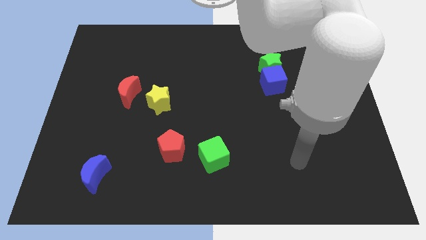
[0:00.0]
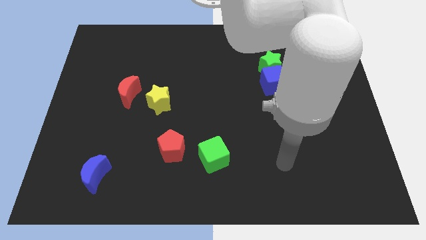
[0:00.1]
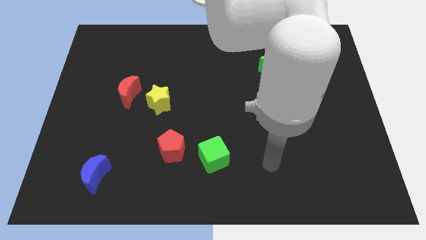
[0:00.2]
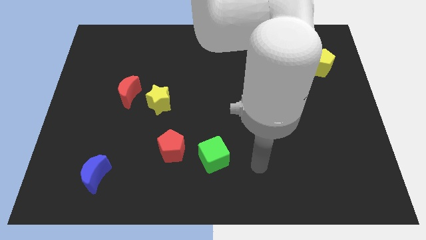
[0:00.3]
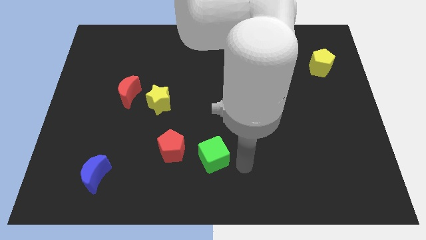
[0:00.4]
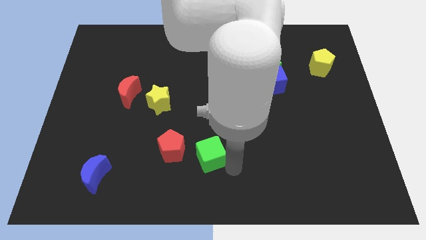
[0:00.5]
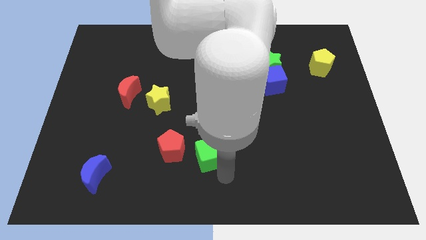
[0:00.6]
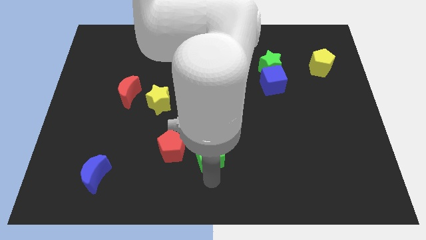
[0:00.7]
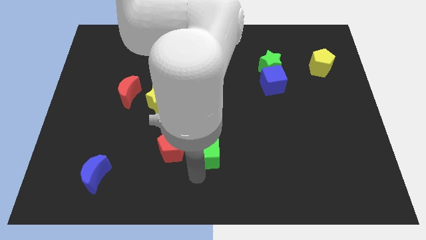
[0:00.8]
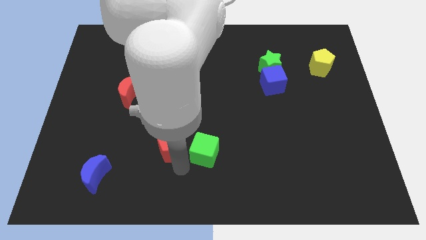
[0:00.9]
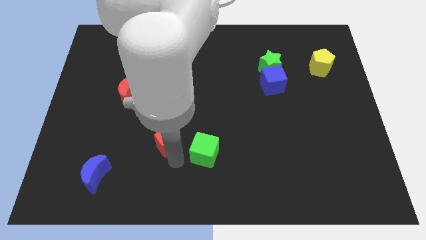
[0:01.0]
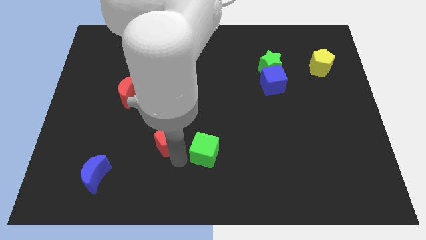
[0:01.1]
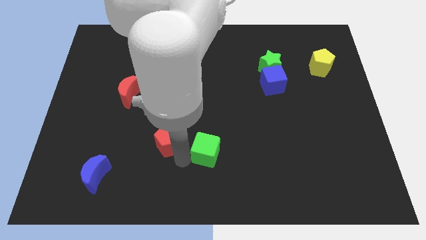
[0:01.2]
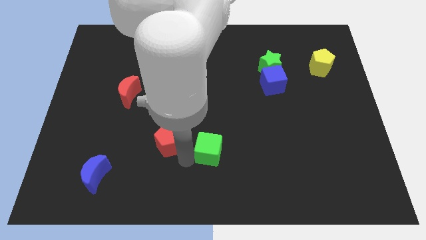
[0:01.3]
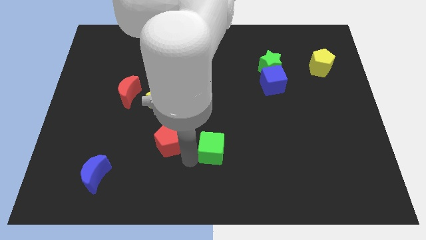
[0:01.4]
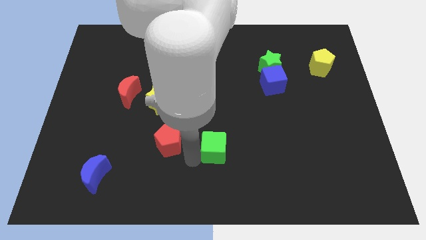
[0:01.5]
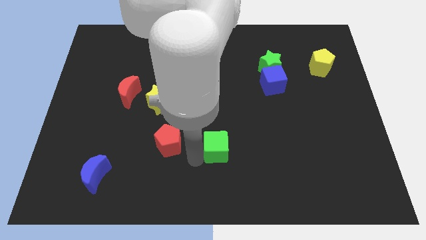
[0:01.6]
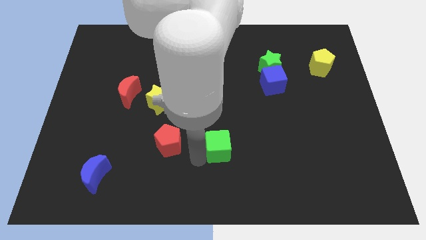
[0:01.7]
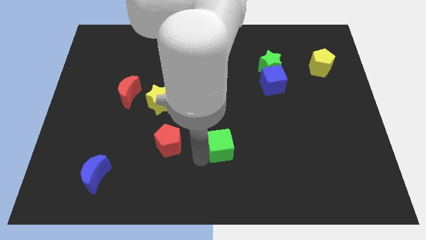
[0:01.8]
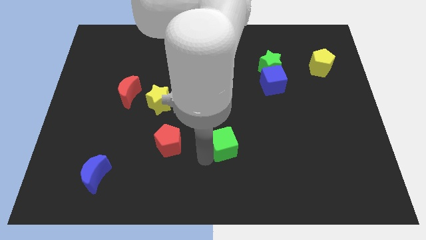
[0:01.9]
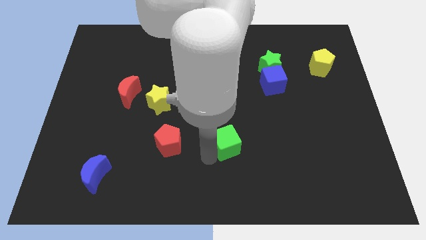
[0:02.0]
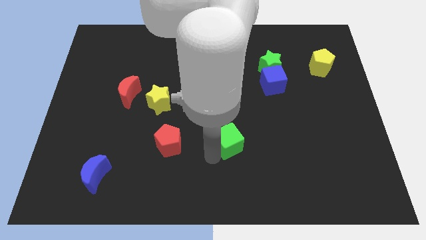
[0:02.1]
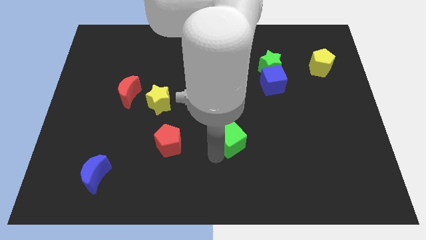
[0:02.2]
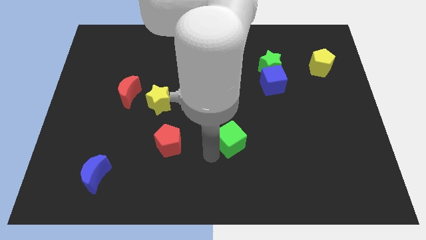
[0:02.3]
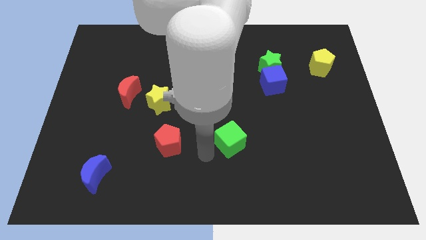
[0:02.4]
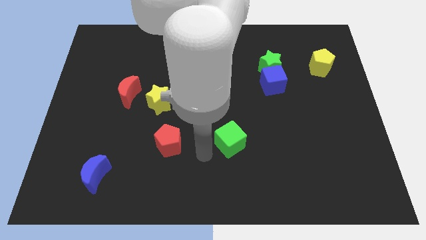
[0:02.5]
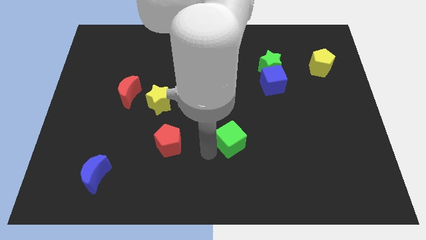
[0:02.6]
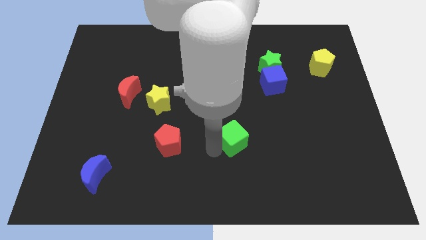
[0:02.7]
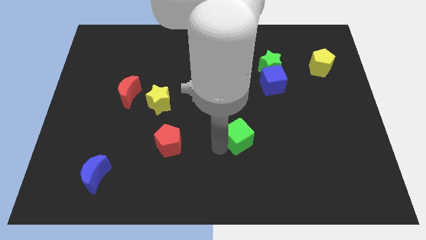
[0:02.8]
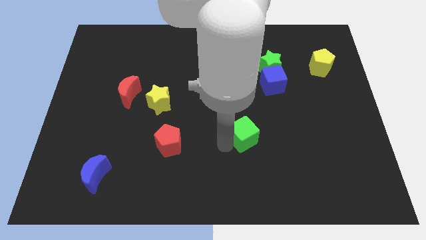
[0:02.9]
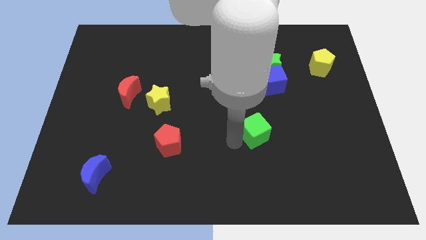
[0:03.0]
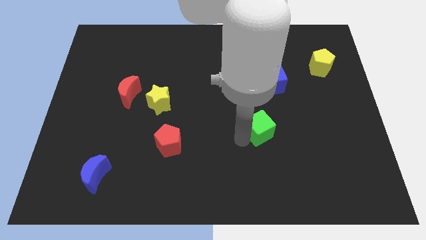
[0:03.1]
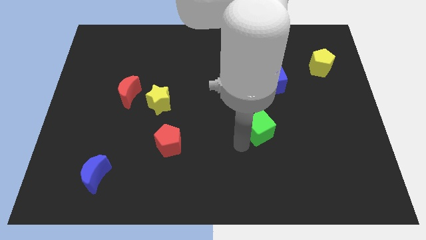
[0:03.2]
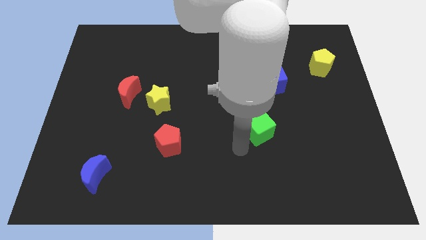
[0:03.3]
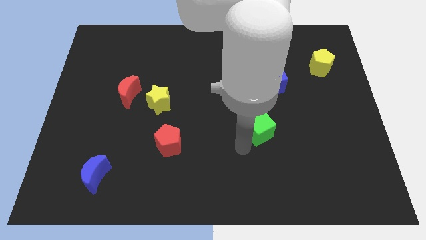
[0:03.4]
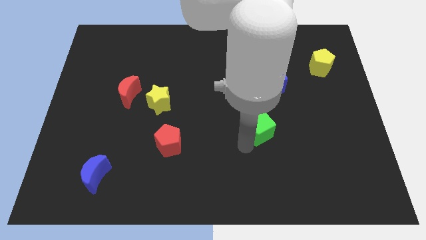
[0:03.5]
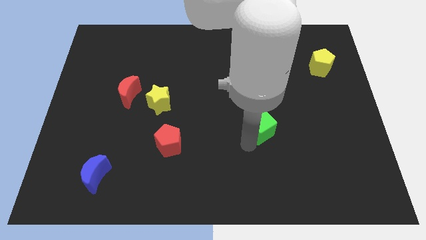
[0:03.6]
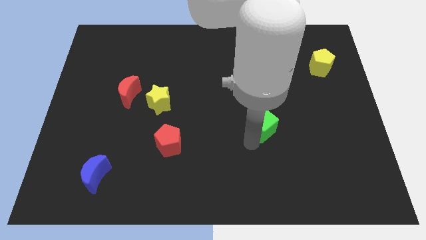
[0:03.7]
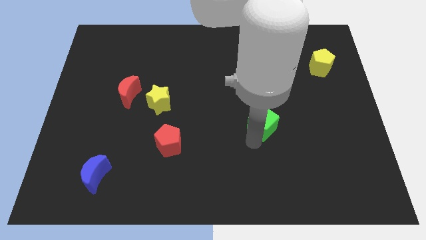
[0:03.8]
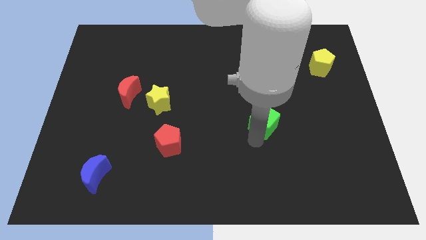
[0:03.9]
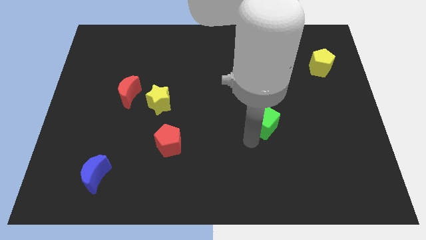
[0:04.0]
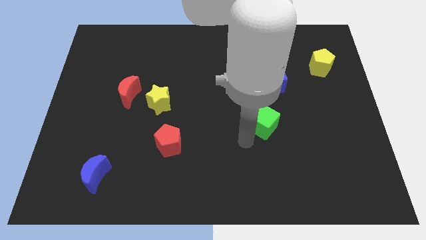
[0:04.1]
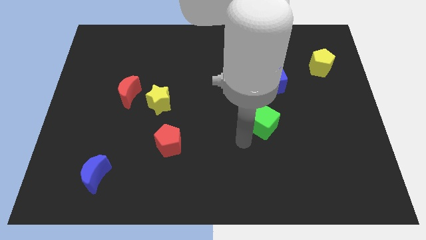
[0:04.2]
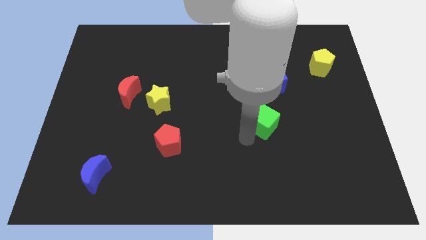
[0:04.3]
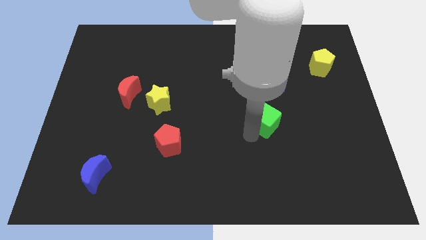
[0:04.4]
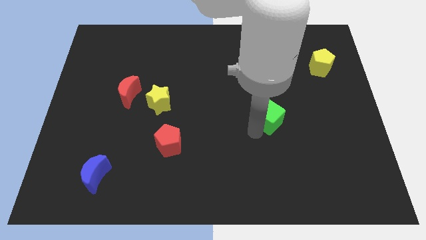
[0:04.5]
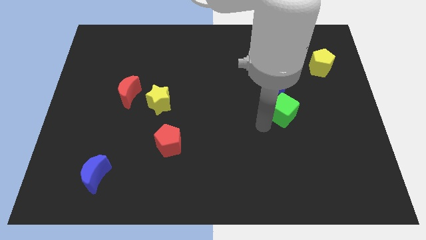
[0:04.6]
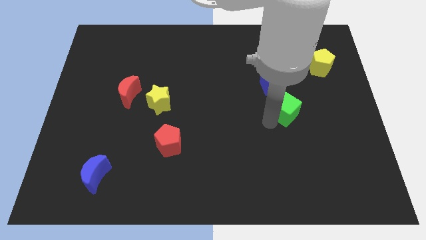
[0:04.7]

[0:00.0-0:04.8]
push the green cube upwards and to the right

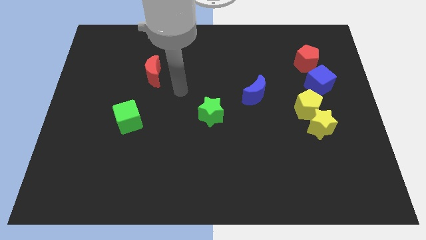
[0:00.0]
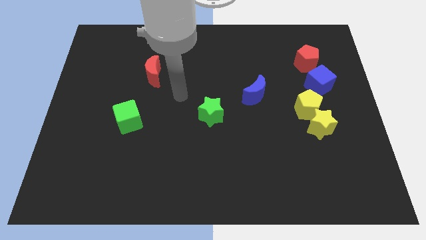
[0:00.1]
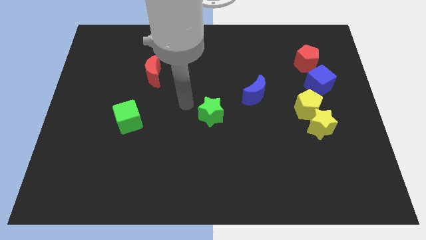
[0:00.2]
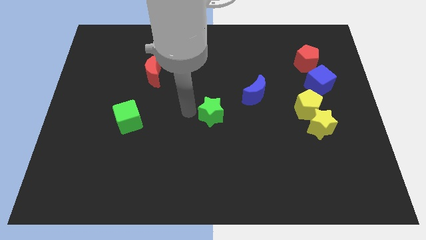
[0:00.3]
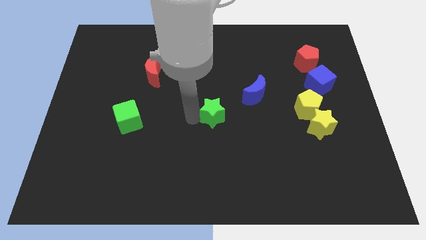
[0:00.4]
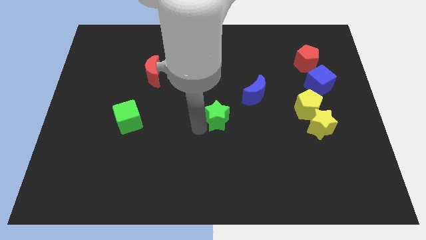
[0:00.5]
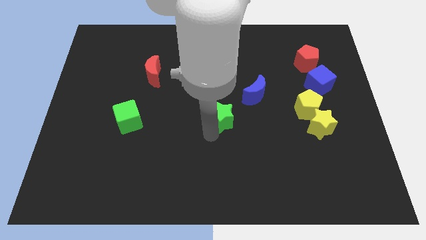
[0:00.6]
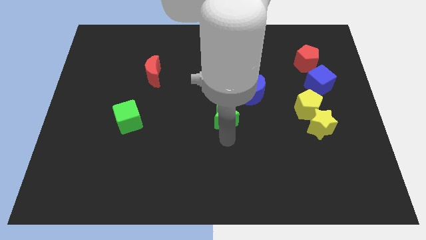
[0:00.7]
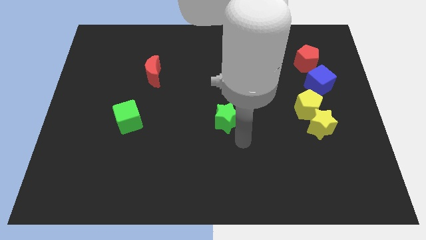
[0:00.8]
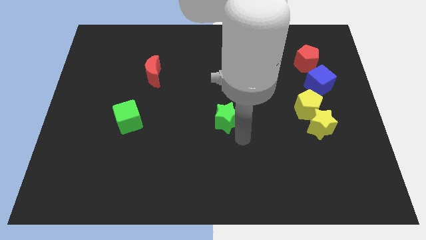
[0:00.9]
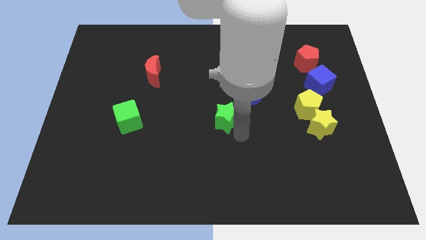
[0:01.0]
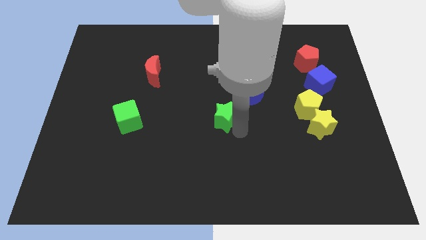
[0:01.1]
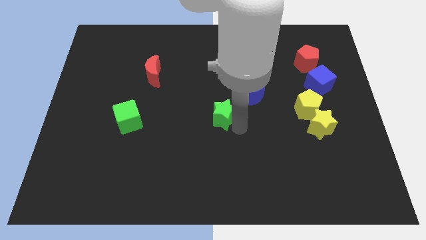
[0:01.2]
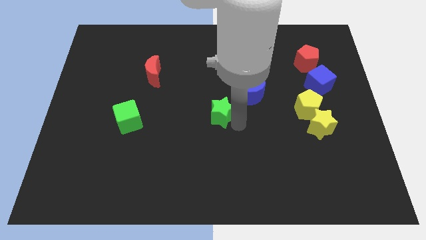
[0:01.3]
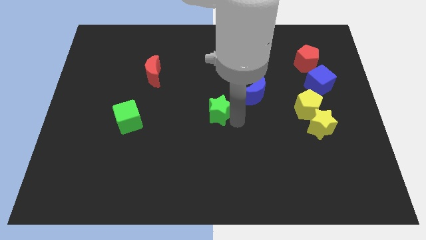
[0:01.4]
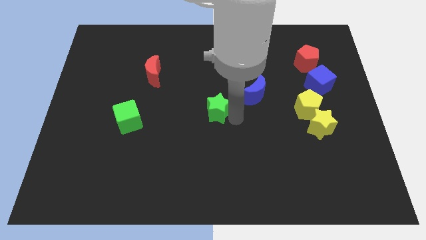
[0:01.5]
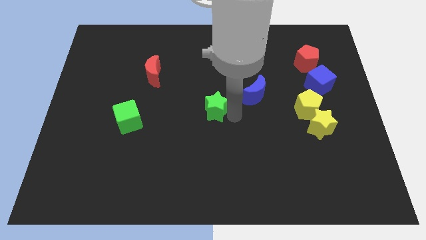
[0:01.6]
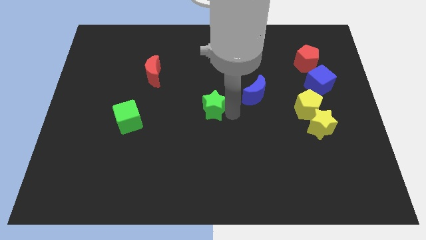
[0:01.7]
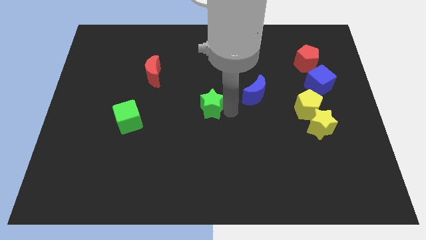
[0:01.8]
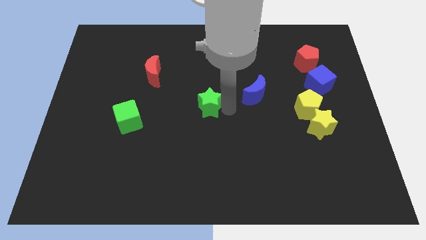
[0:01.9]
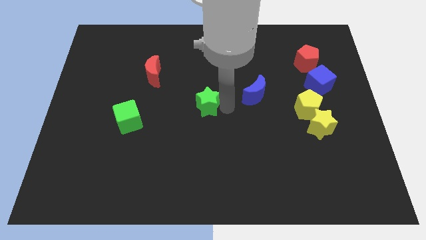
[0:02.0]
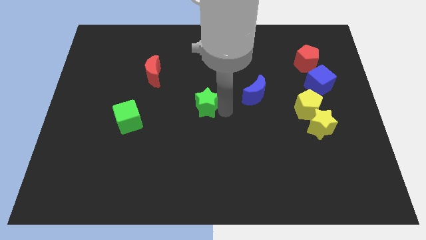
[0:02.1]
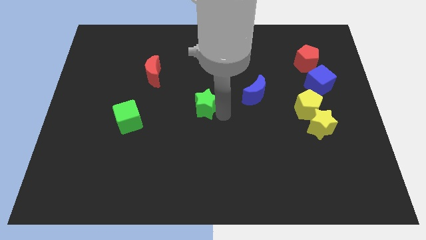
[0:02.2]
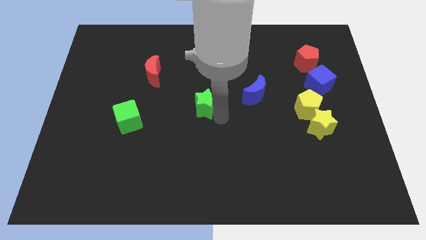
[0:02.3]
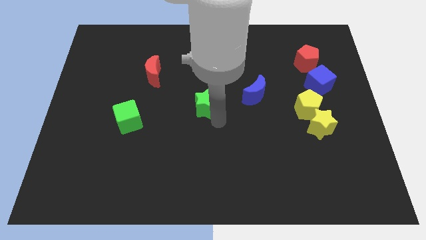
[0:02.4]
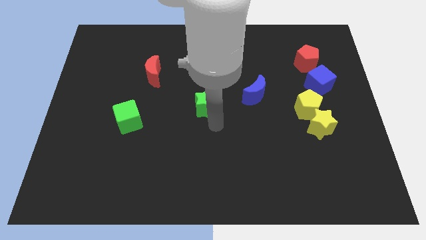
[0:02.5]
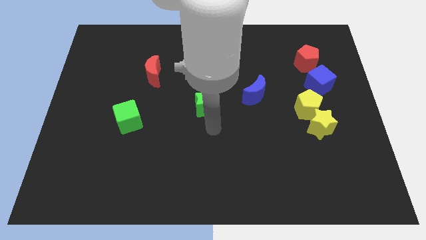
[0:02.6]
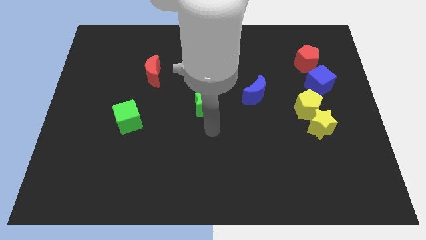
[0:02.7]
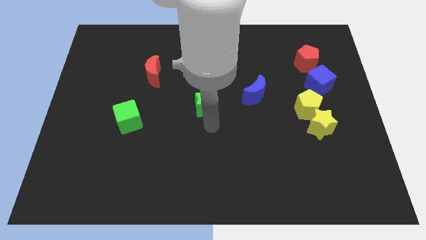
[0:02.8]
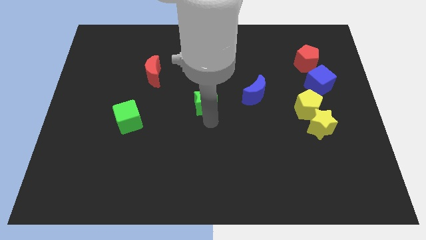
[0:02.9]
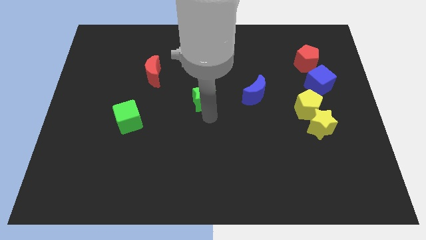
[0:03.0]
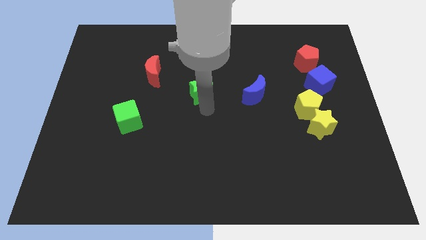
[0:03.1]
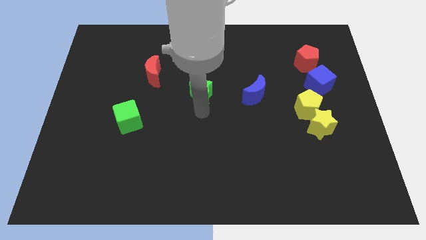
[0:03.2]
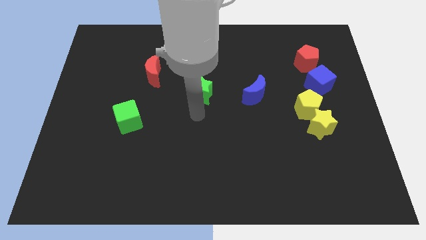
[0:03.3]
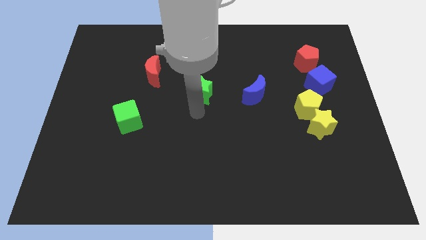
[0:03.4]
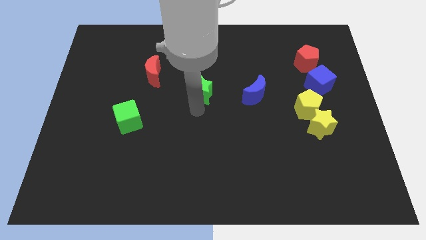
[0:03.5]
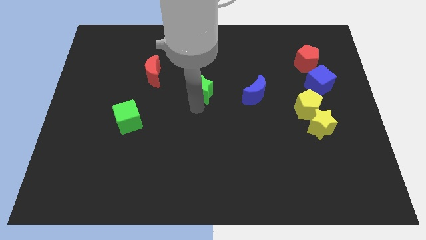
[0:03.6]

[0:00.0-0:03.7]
slide the green star up a bit
